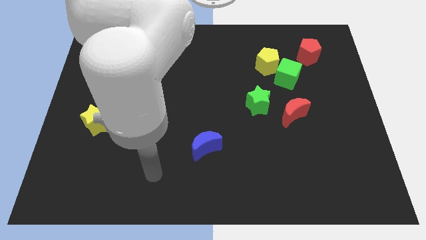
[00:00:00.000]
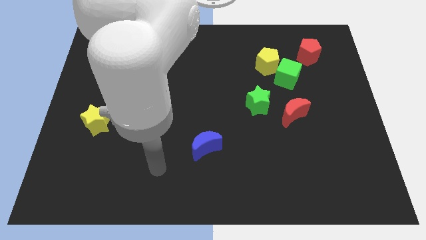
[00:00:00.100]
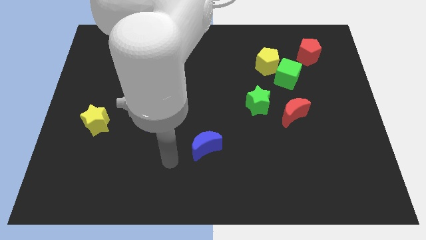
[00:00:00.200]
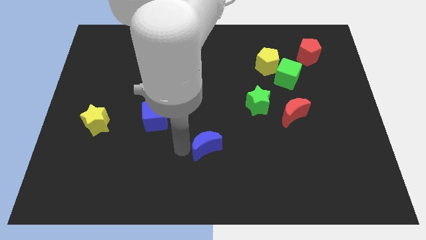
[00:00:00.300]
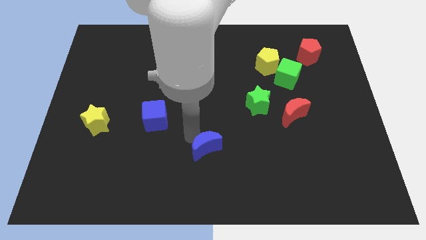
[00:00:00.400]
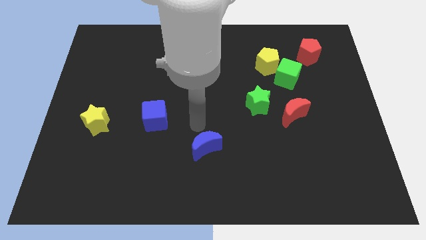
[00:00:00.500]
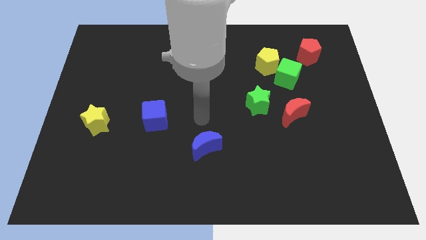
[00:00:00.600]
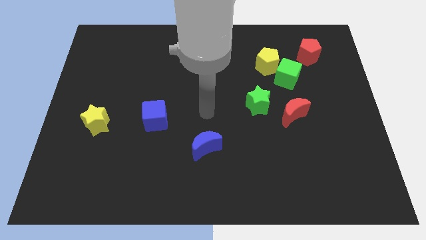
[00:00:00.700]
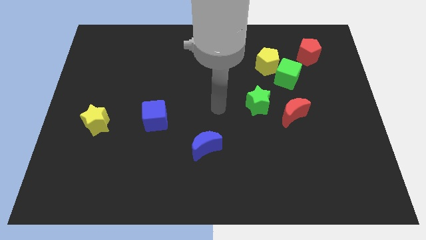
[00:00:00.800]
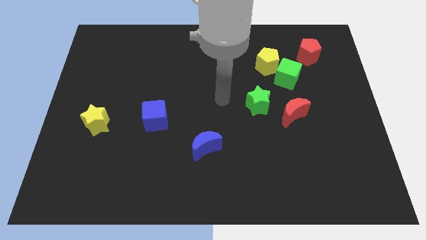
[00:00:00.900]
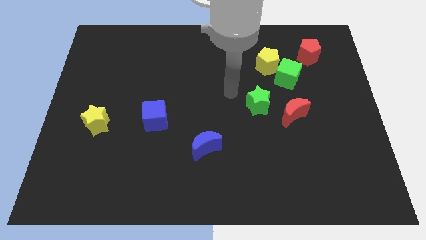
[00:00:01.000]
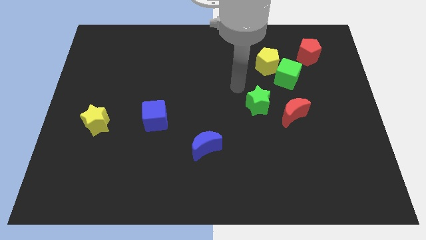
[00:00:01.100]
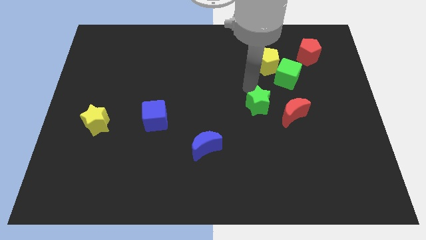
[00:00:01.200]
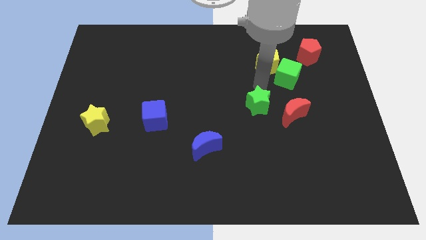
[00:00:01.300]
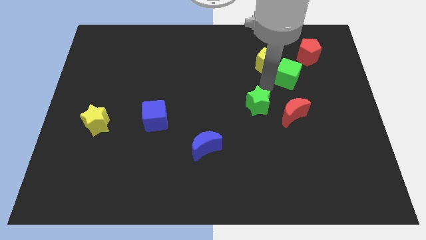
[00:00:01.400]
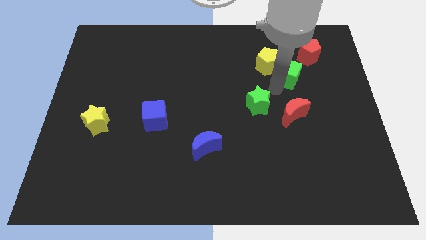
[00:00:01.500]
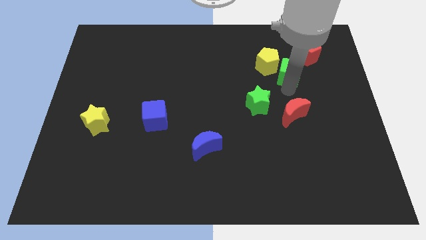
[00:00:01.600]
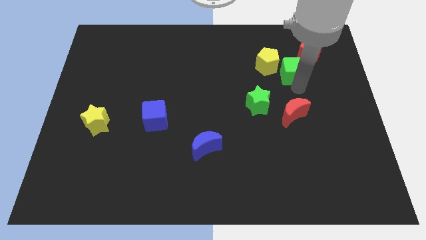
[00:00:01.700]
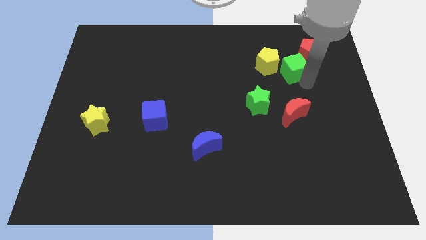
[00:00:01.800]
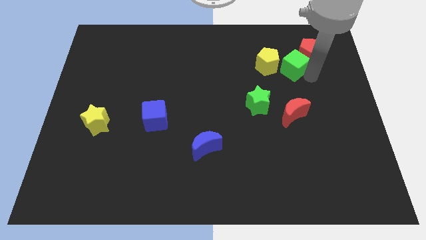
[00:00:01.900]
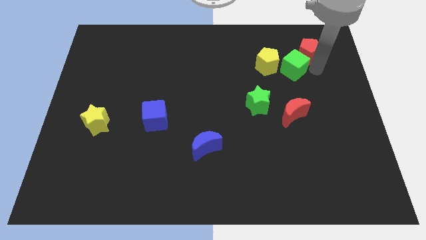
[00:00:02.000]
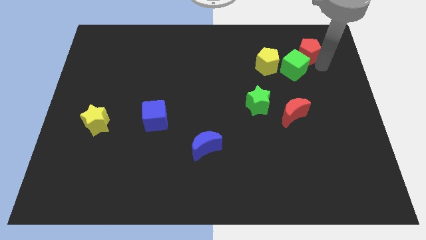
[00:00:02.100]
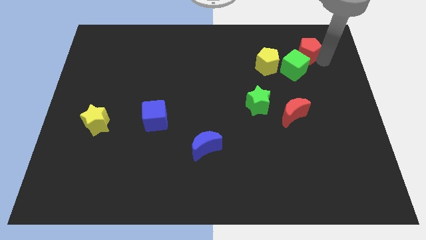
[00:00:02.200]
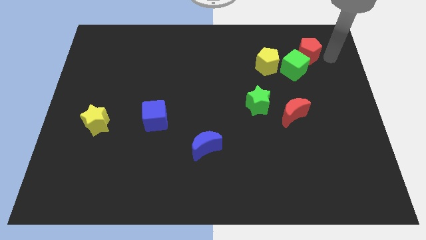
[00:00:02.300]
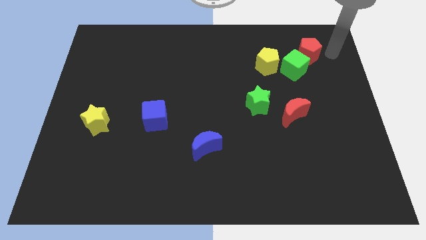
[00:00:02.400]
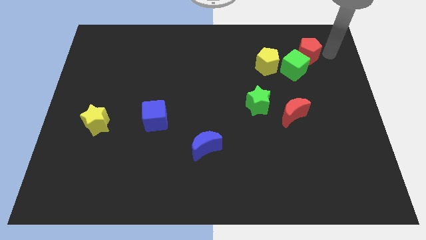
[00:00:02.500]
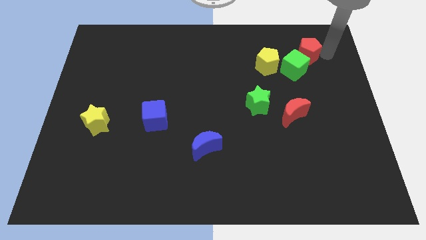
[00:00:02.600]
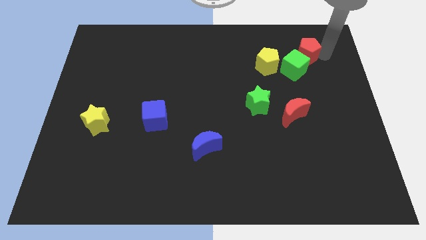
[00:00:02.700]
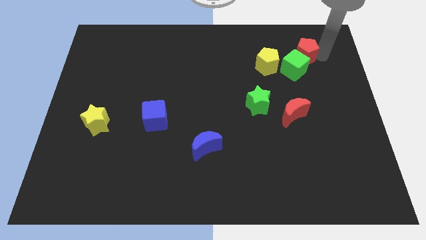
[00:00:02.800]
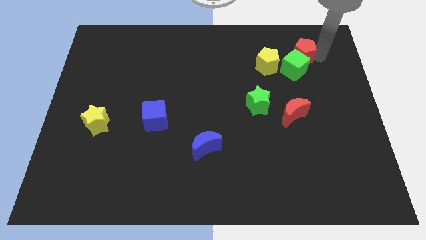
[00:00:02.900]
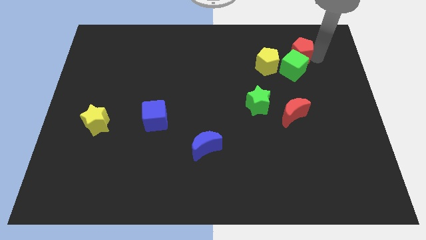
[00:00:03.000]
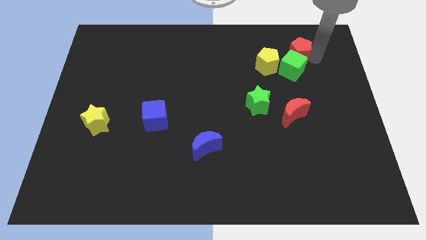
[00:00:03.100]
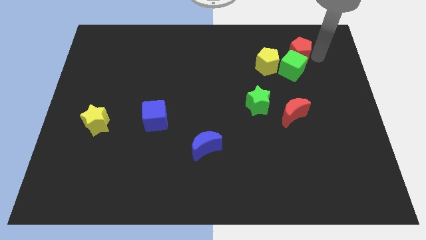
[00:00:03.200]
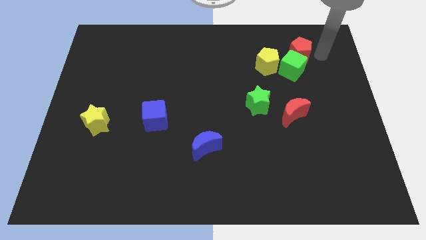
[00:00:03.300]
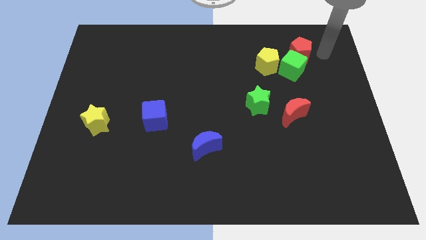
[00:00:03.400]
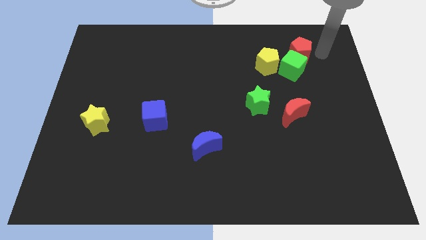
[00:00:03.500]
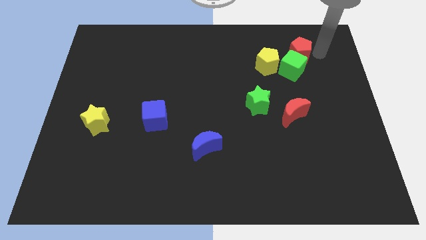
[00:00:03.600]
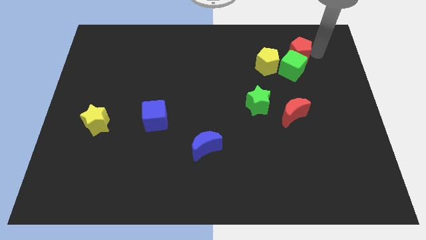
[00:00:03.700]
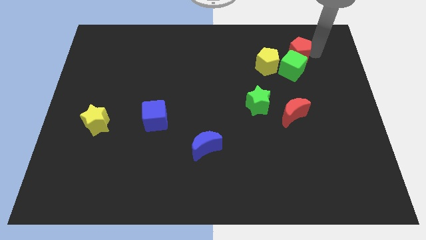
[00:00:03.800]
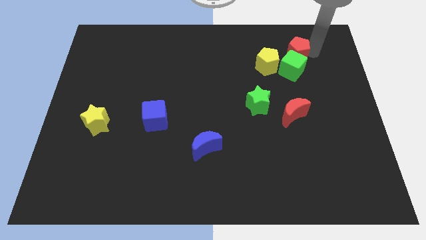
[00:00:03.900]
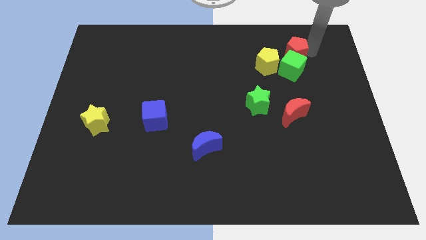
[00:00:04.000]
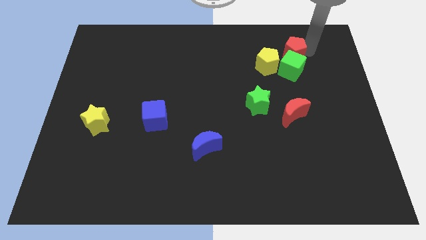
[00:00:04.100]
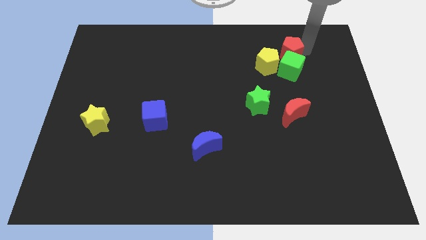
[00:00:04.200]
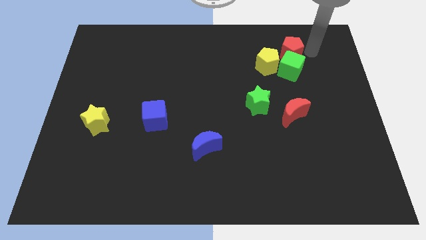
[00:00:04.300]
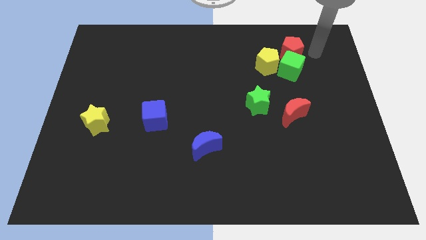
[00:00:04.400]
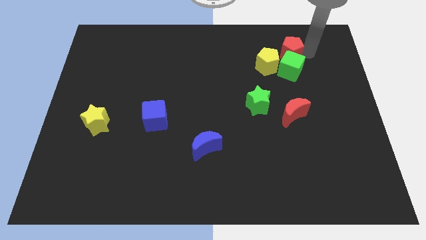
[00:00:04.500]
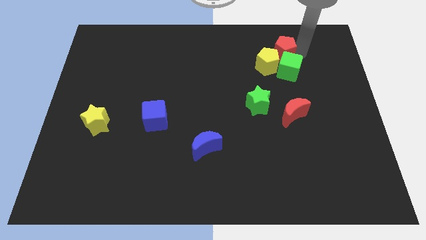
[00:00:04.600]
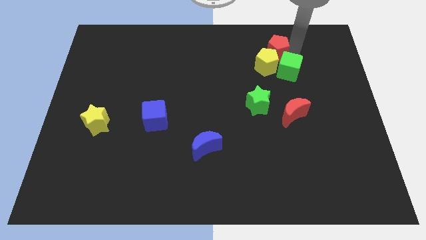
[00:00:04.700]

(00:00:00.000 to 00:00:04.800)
slide the red pentagon a little left

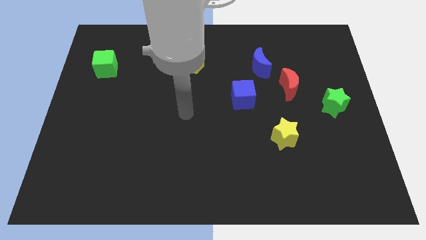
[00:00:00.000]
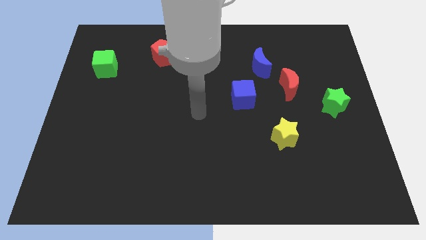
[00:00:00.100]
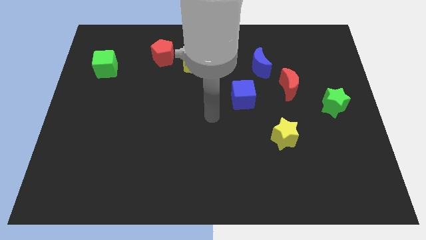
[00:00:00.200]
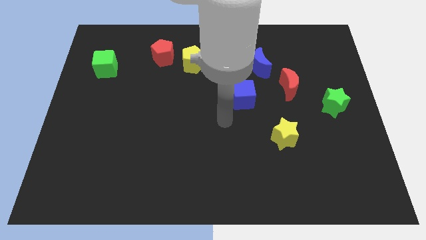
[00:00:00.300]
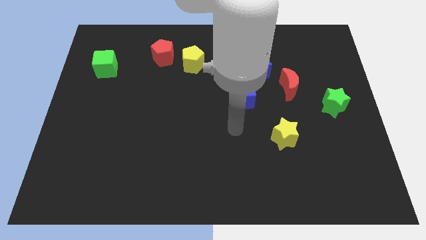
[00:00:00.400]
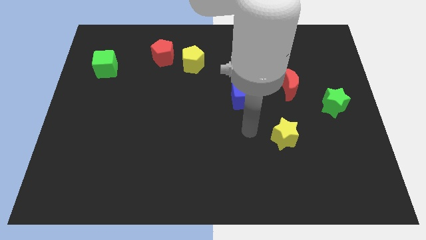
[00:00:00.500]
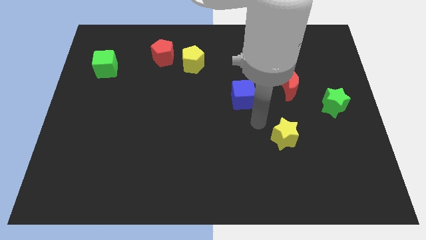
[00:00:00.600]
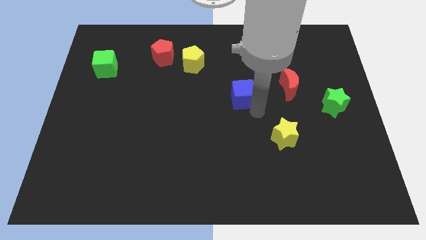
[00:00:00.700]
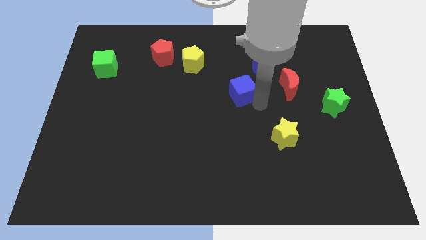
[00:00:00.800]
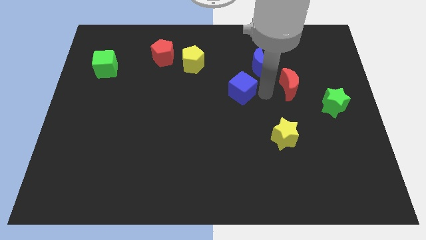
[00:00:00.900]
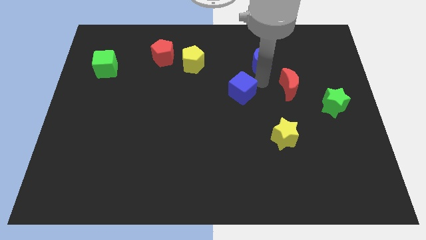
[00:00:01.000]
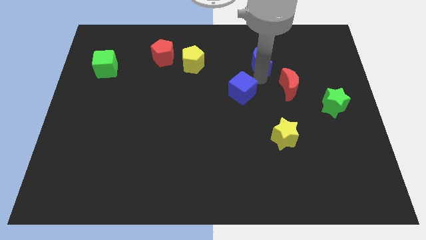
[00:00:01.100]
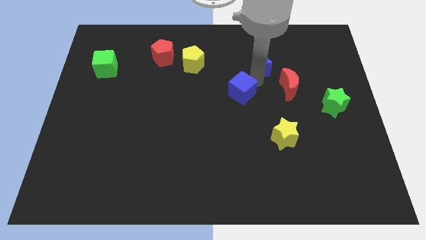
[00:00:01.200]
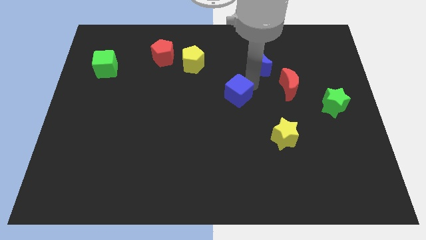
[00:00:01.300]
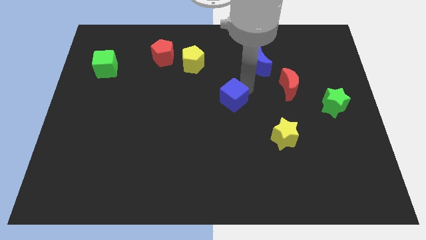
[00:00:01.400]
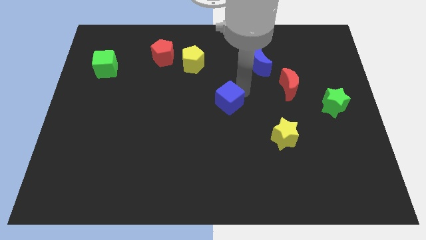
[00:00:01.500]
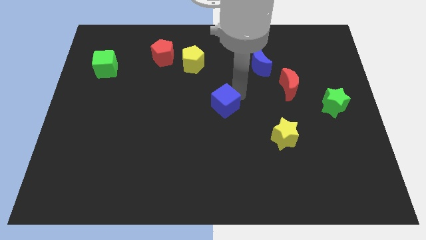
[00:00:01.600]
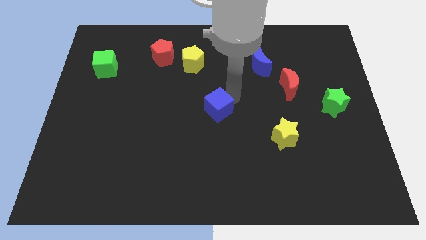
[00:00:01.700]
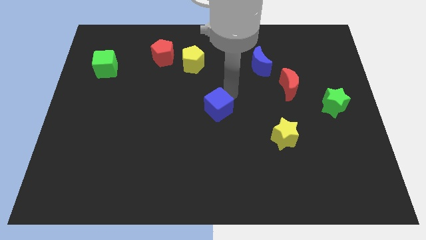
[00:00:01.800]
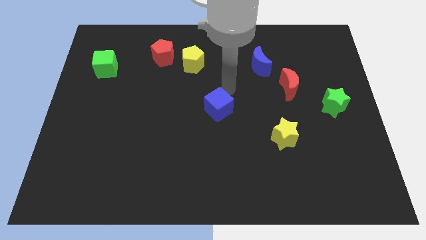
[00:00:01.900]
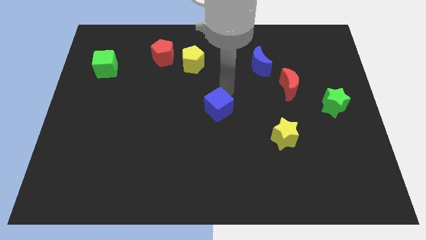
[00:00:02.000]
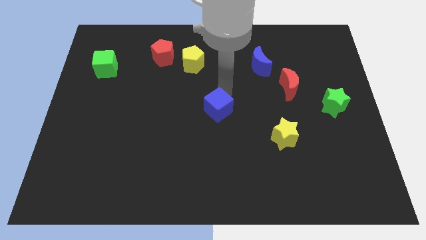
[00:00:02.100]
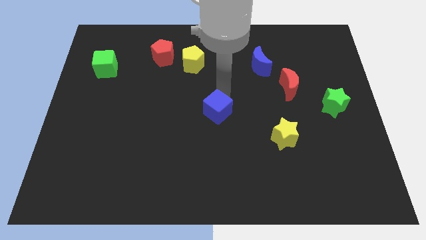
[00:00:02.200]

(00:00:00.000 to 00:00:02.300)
slightly move the blue cube down and to the left diagonally

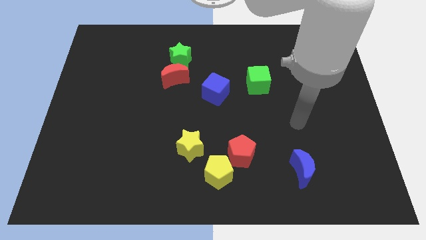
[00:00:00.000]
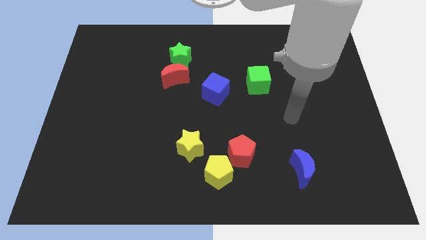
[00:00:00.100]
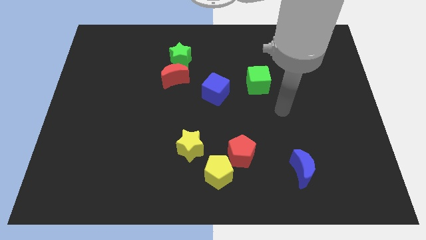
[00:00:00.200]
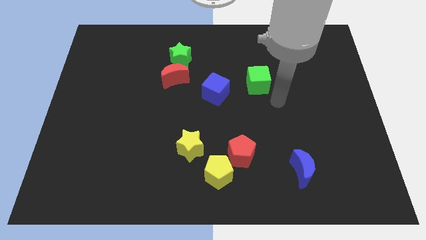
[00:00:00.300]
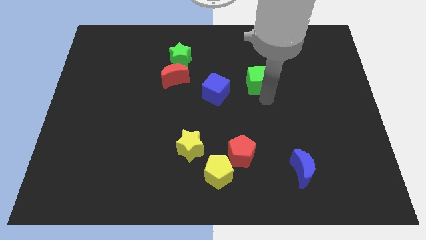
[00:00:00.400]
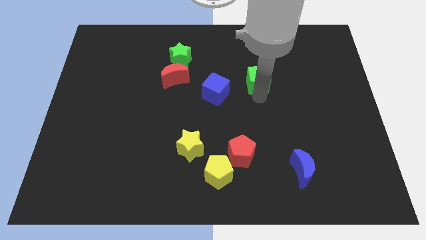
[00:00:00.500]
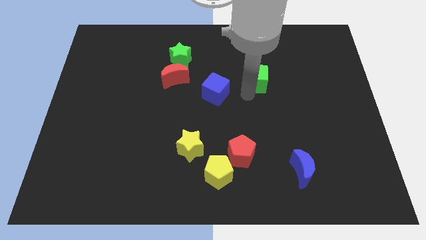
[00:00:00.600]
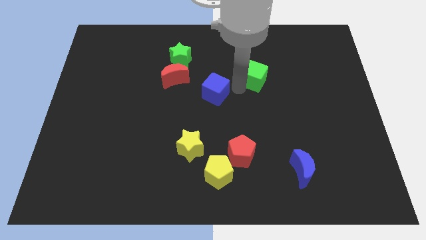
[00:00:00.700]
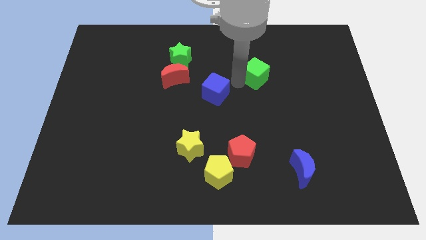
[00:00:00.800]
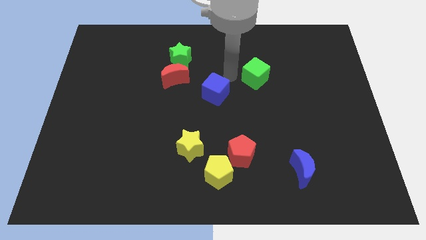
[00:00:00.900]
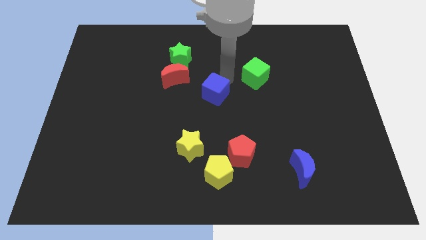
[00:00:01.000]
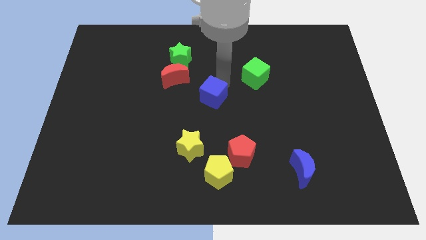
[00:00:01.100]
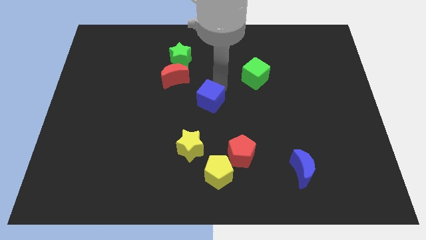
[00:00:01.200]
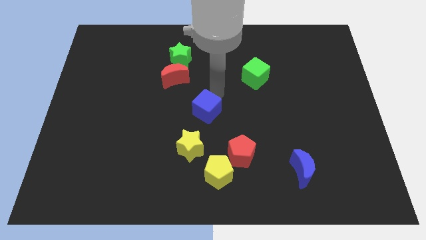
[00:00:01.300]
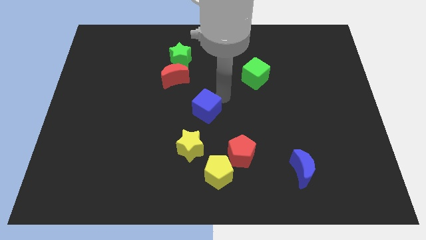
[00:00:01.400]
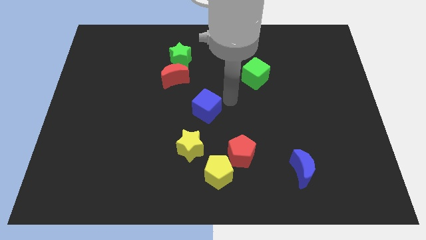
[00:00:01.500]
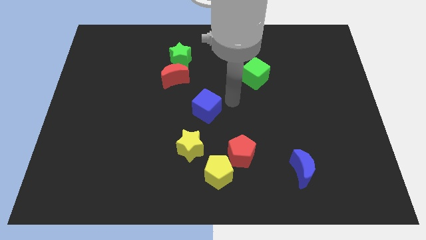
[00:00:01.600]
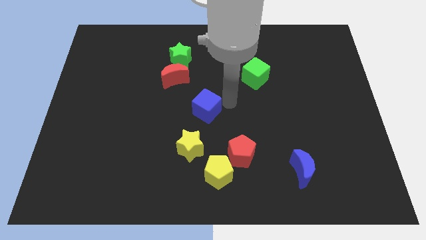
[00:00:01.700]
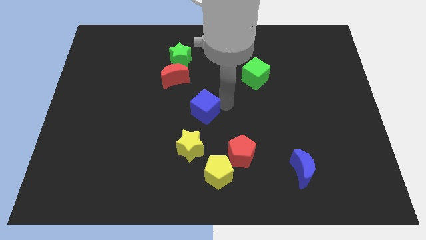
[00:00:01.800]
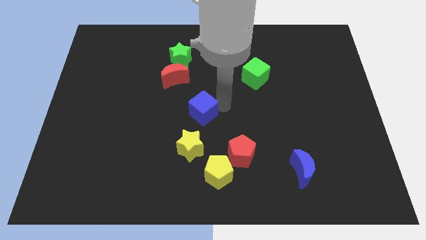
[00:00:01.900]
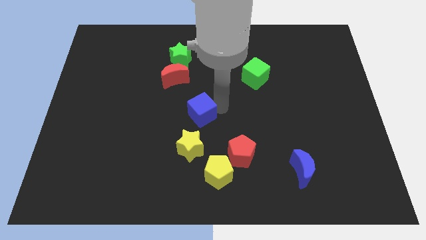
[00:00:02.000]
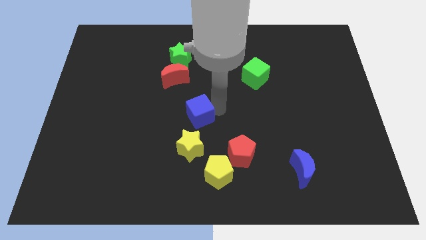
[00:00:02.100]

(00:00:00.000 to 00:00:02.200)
slide the blue cube down and left diagonally a bit
